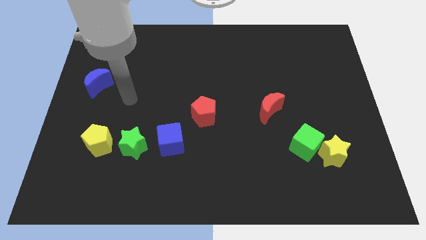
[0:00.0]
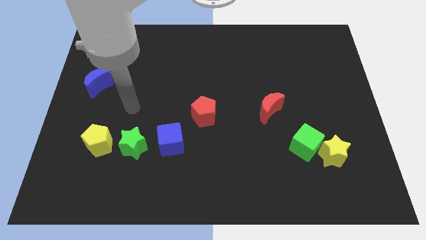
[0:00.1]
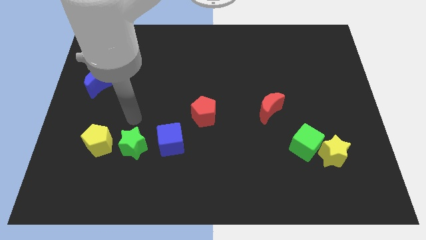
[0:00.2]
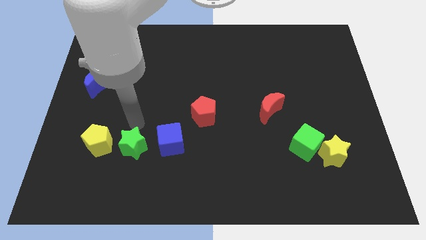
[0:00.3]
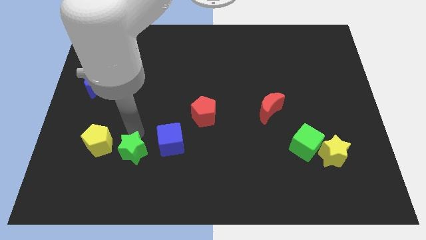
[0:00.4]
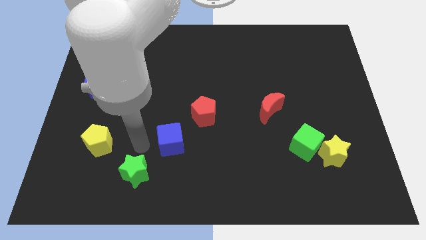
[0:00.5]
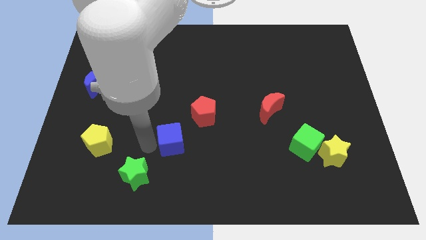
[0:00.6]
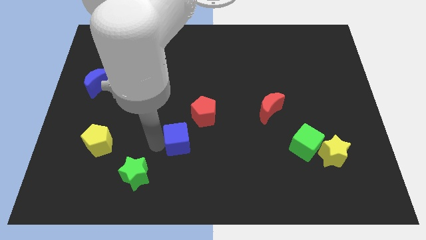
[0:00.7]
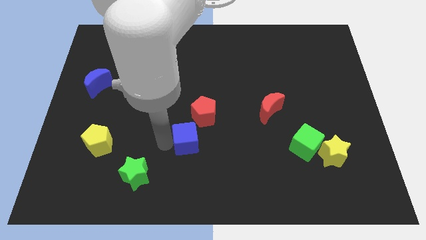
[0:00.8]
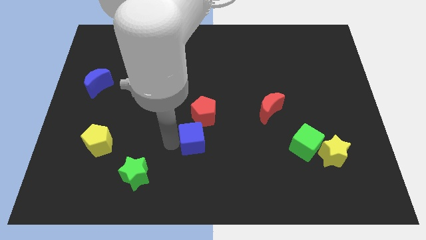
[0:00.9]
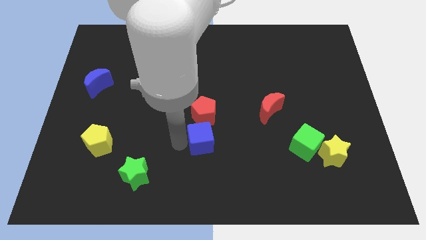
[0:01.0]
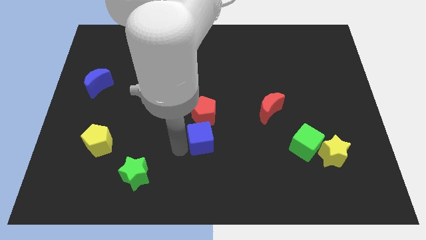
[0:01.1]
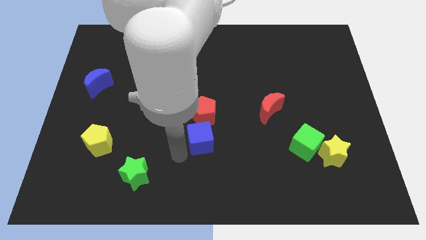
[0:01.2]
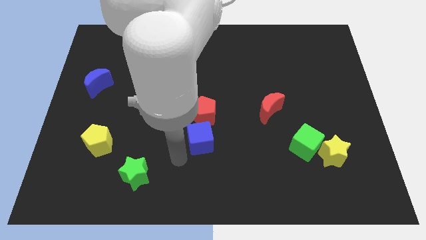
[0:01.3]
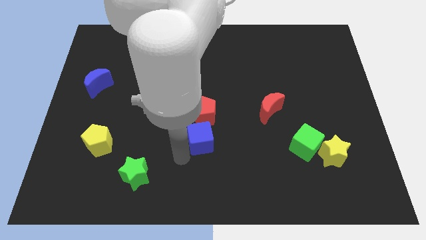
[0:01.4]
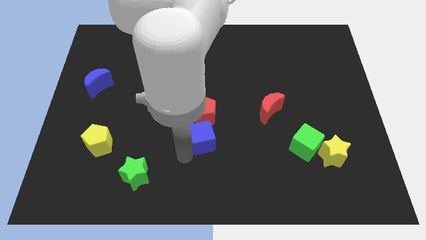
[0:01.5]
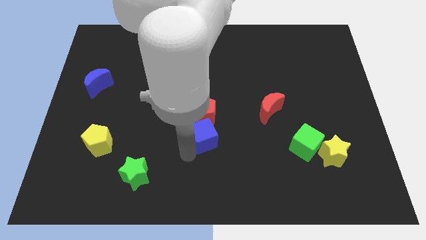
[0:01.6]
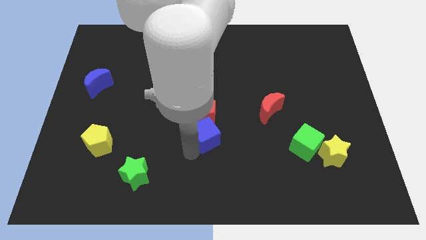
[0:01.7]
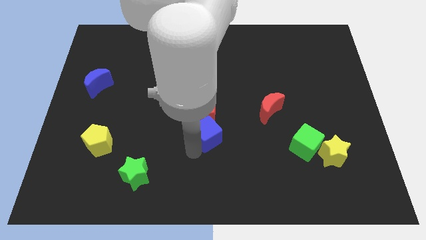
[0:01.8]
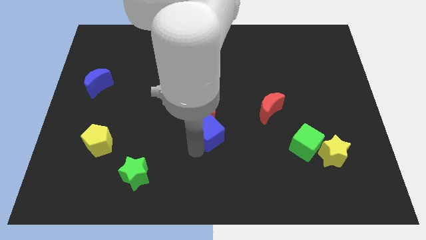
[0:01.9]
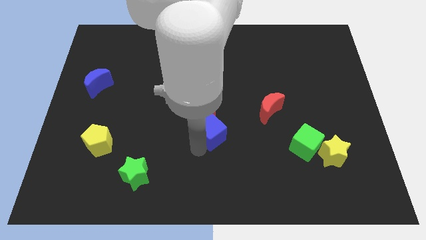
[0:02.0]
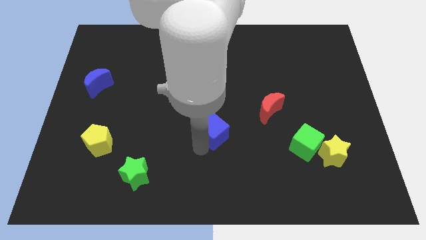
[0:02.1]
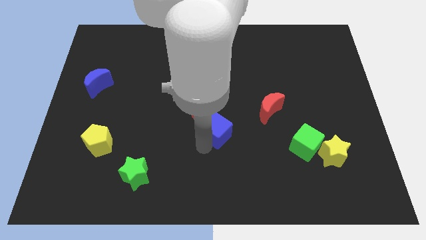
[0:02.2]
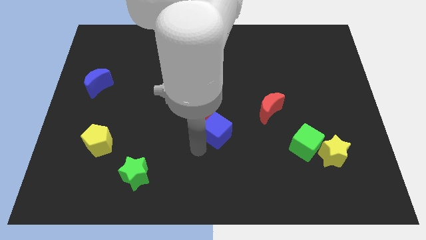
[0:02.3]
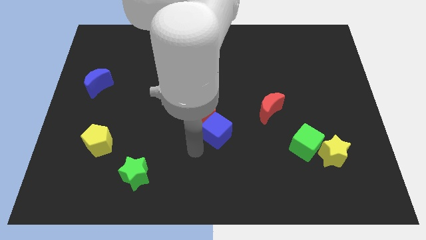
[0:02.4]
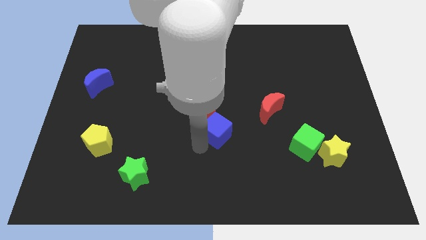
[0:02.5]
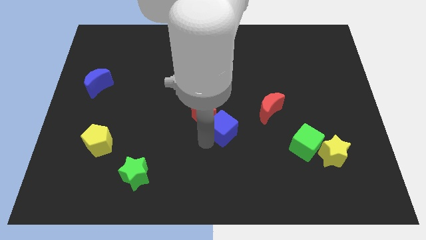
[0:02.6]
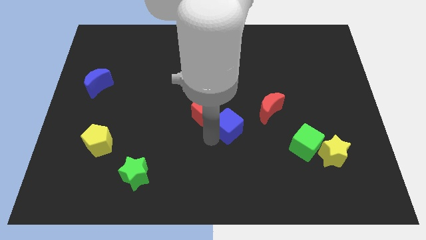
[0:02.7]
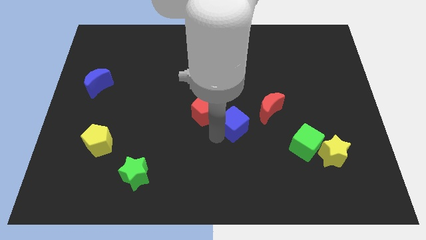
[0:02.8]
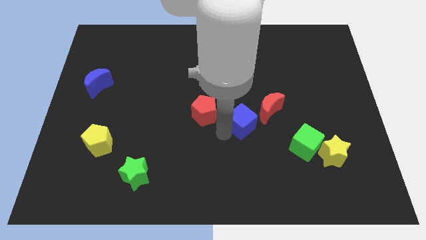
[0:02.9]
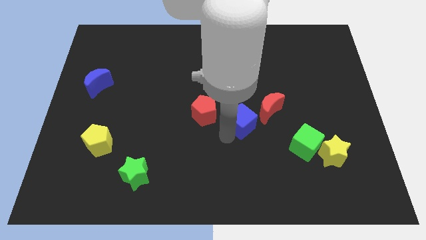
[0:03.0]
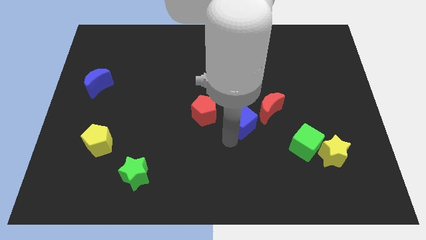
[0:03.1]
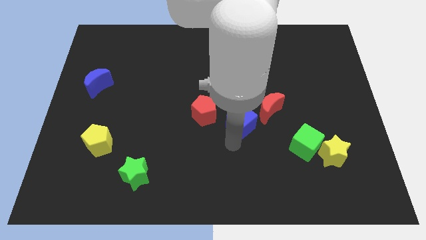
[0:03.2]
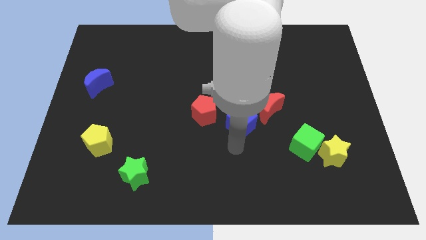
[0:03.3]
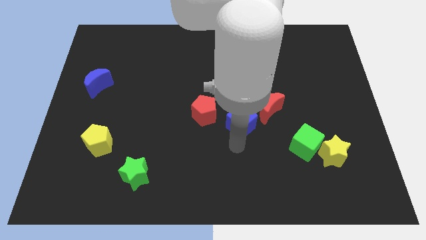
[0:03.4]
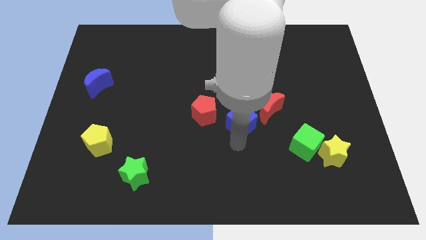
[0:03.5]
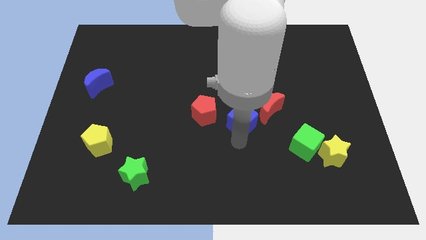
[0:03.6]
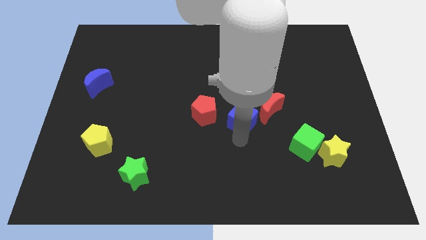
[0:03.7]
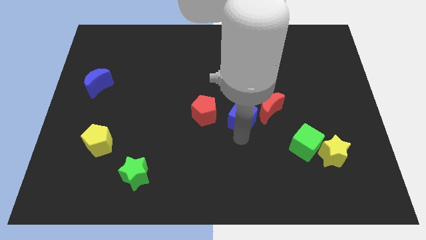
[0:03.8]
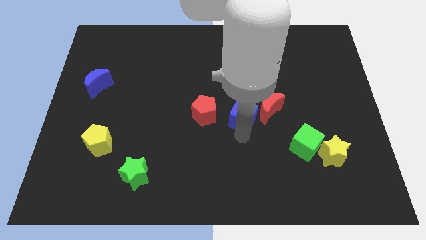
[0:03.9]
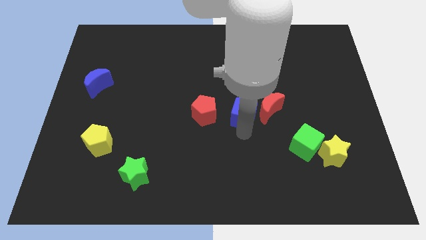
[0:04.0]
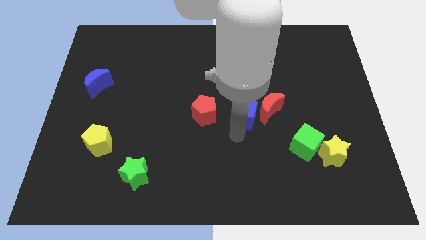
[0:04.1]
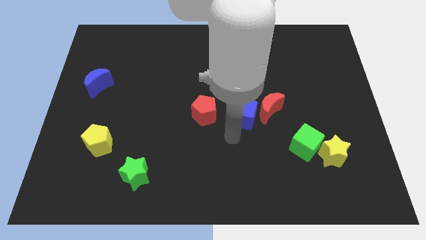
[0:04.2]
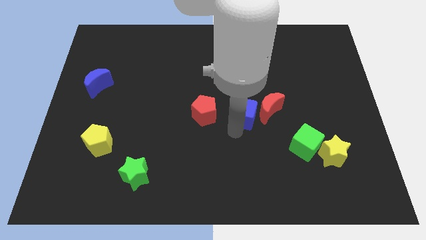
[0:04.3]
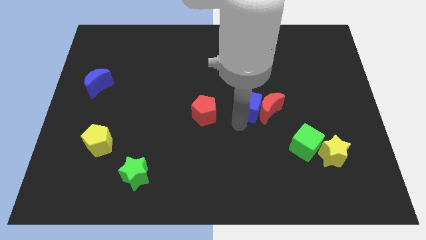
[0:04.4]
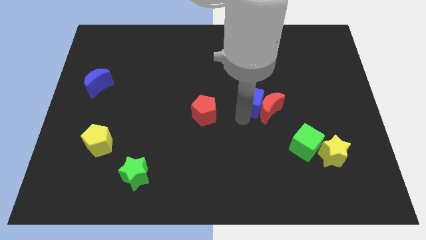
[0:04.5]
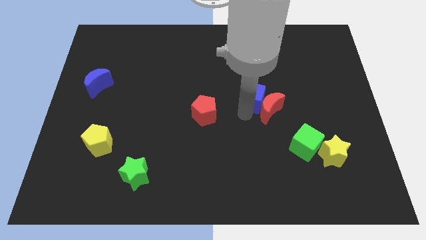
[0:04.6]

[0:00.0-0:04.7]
push the blue cube to the top of the red moon

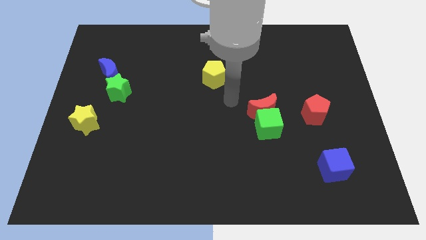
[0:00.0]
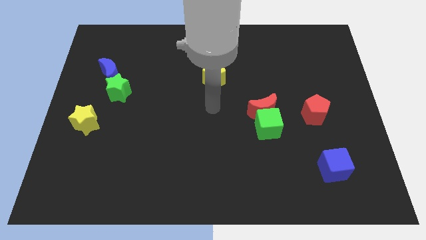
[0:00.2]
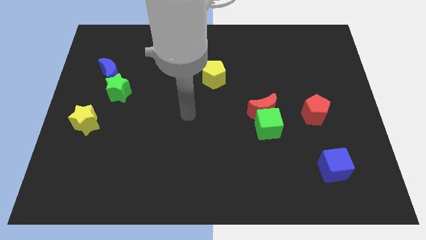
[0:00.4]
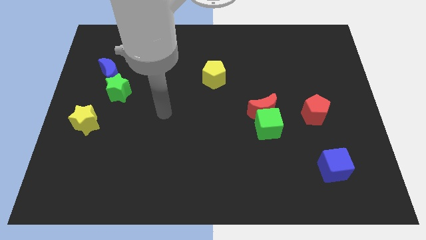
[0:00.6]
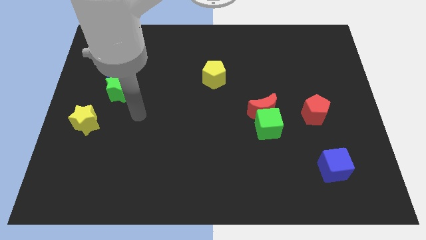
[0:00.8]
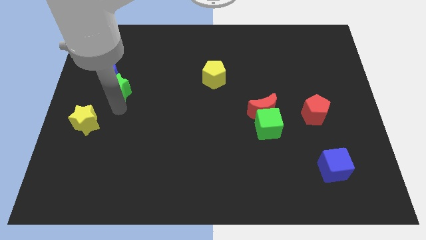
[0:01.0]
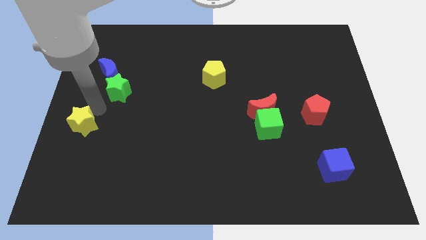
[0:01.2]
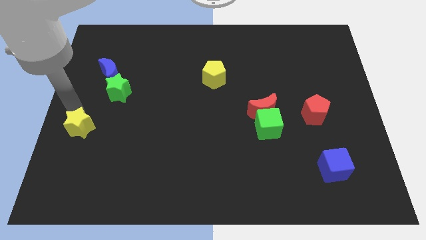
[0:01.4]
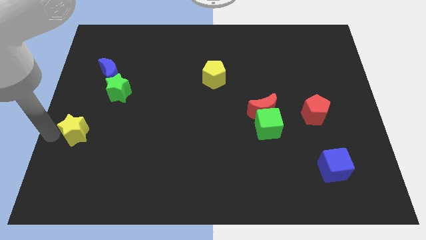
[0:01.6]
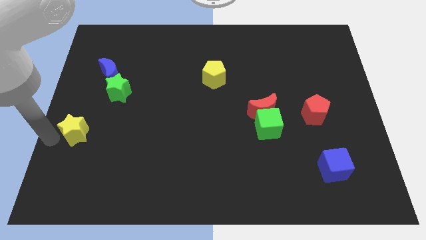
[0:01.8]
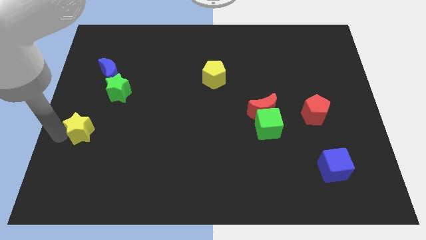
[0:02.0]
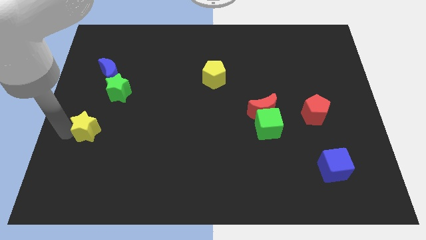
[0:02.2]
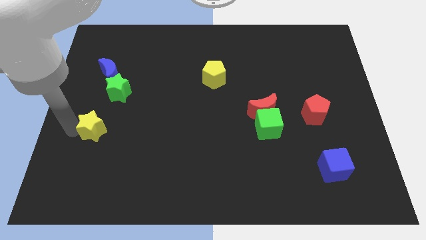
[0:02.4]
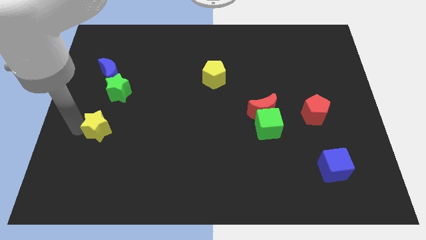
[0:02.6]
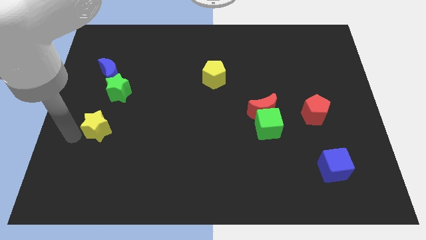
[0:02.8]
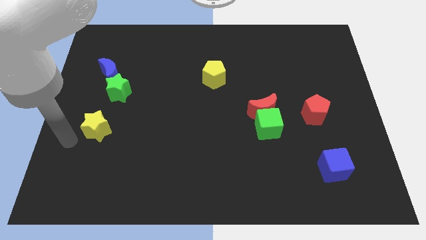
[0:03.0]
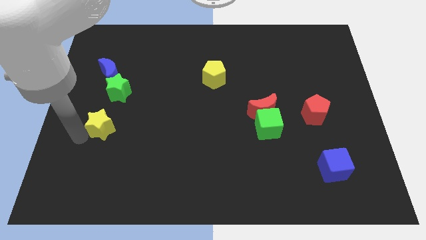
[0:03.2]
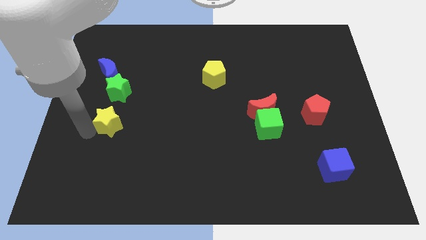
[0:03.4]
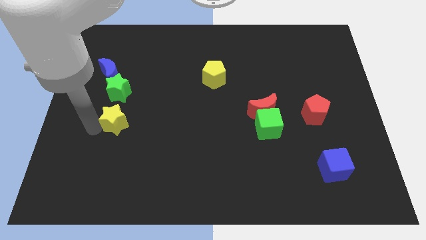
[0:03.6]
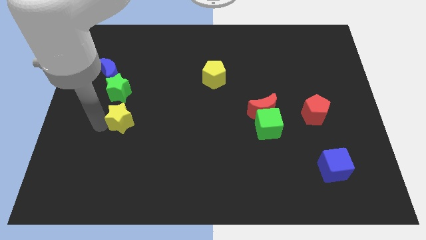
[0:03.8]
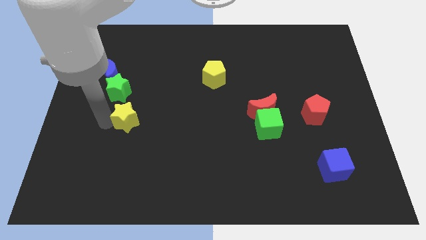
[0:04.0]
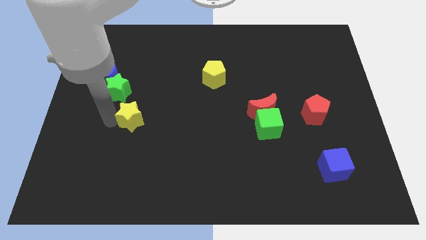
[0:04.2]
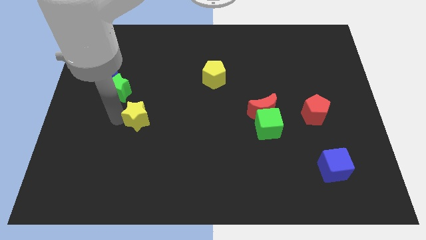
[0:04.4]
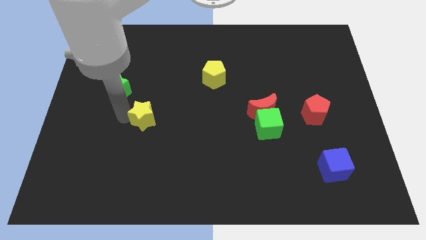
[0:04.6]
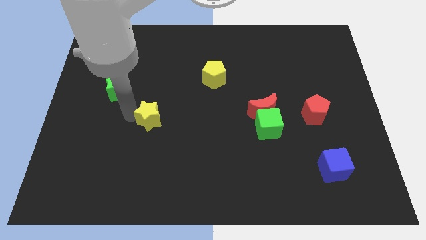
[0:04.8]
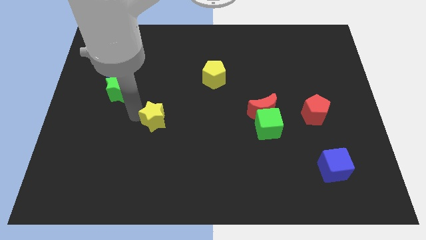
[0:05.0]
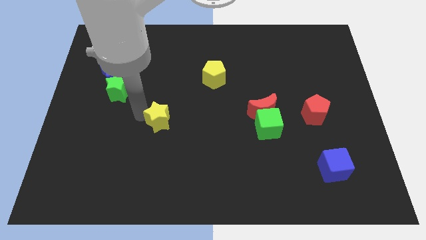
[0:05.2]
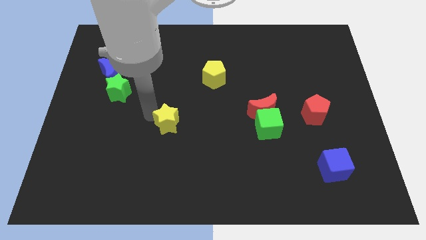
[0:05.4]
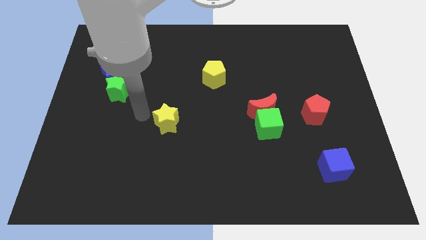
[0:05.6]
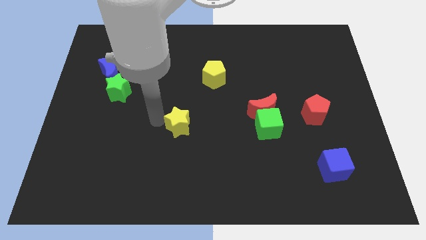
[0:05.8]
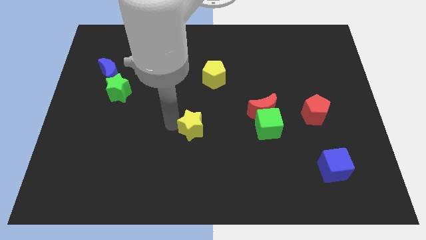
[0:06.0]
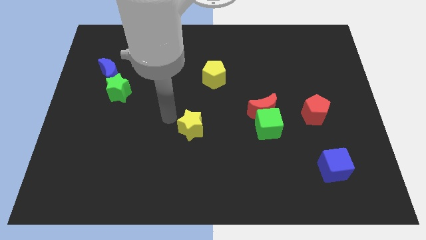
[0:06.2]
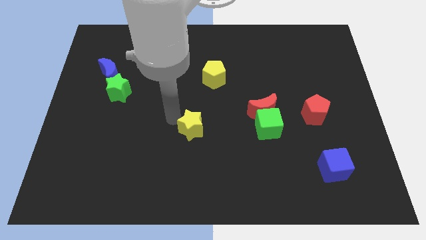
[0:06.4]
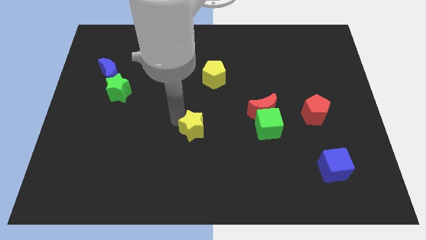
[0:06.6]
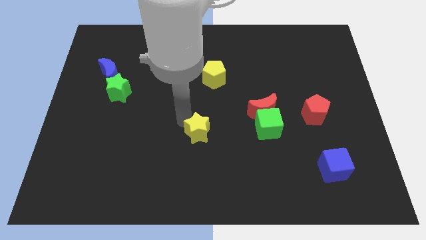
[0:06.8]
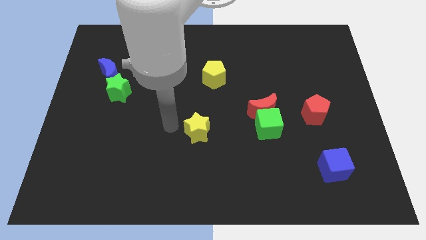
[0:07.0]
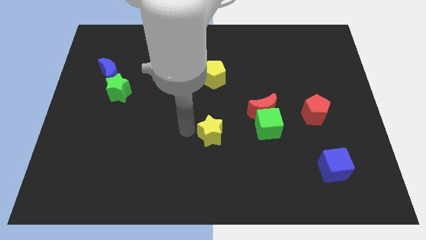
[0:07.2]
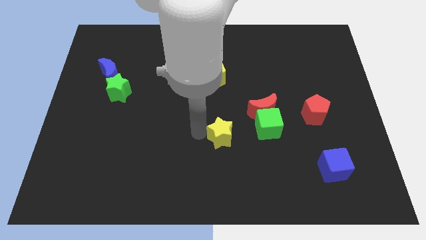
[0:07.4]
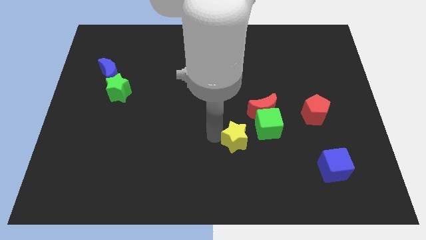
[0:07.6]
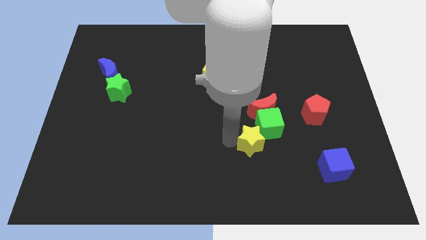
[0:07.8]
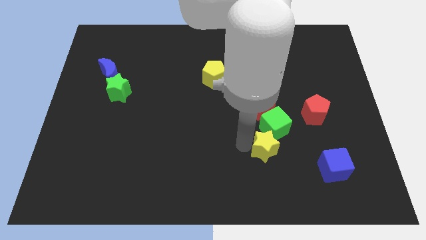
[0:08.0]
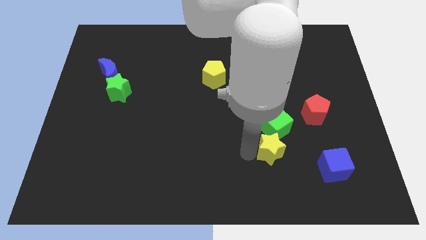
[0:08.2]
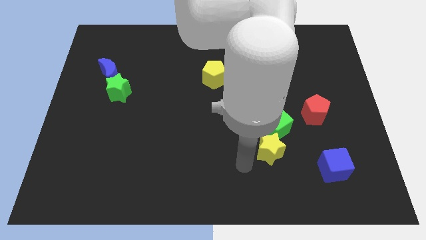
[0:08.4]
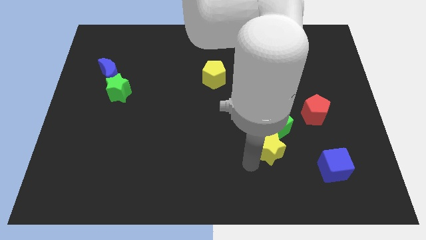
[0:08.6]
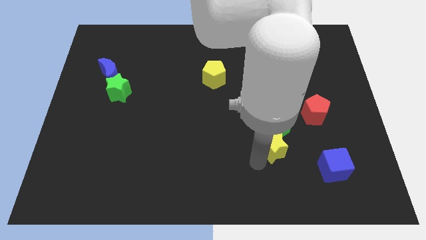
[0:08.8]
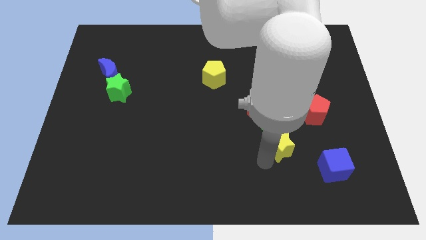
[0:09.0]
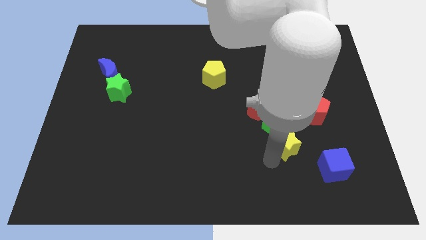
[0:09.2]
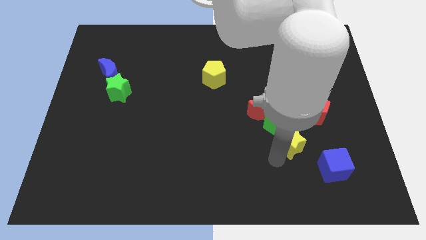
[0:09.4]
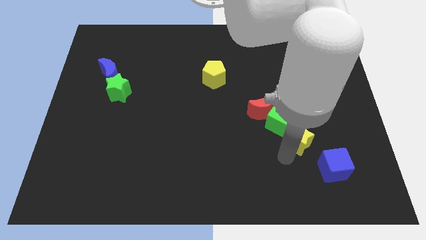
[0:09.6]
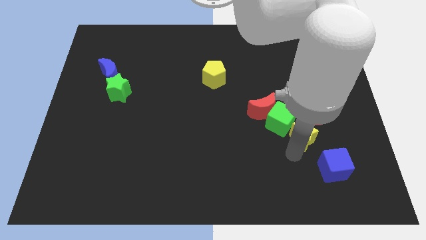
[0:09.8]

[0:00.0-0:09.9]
slide the yellow star just right of the green cube
